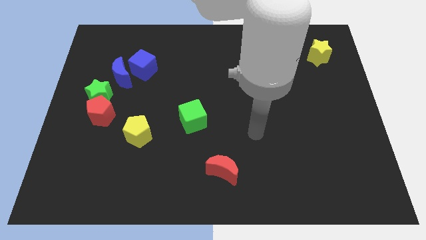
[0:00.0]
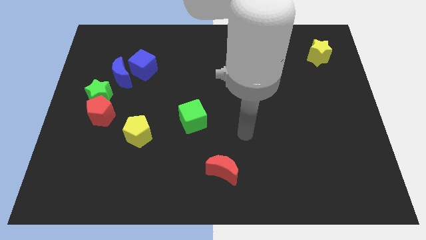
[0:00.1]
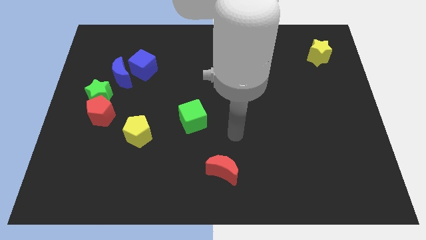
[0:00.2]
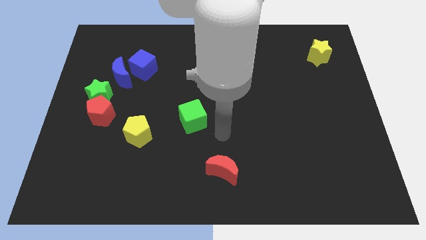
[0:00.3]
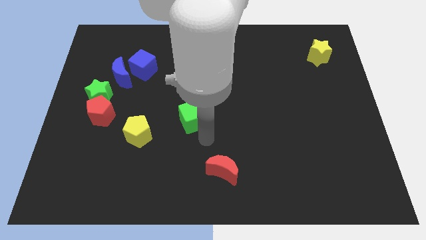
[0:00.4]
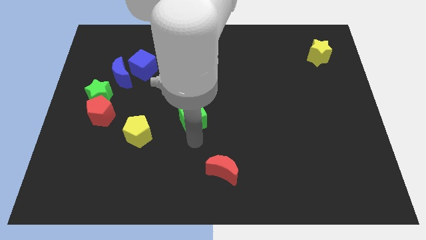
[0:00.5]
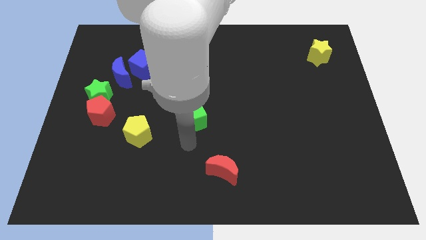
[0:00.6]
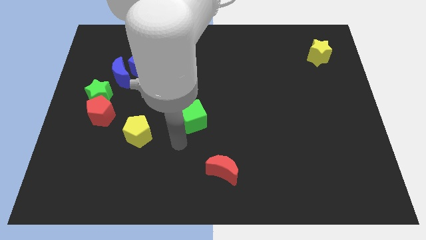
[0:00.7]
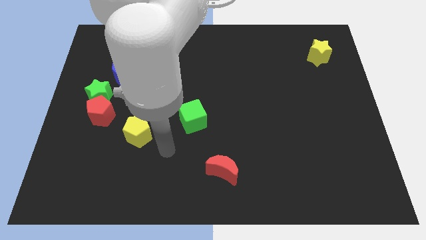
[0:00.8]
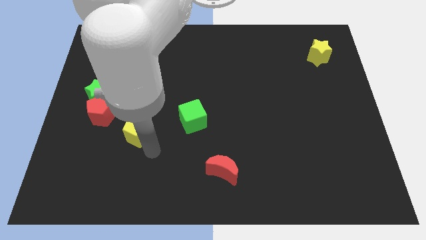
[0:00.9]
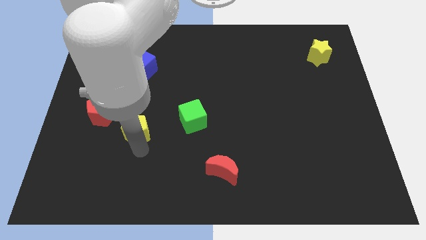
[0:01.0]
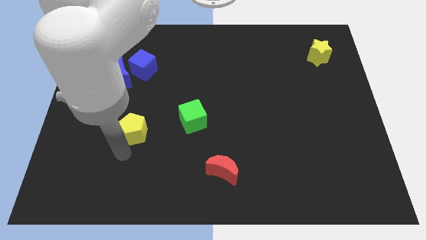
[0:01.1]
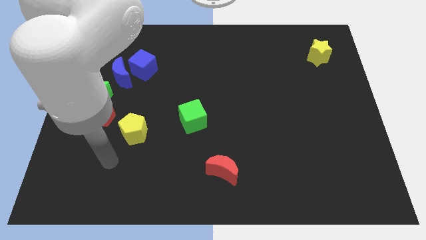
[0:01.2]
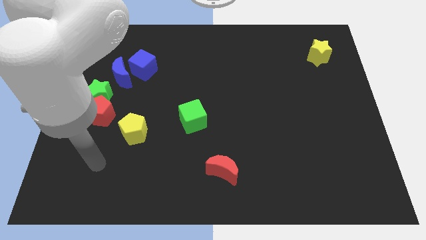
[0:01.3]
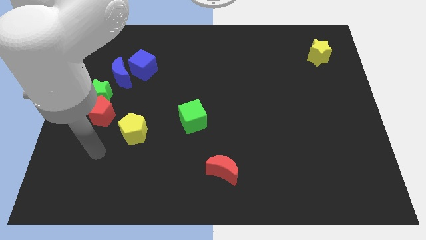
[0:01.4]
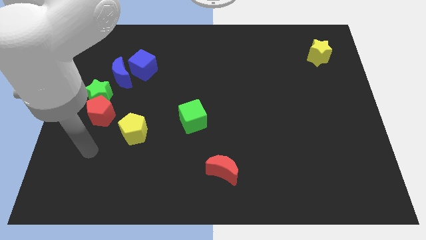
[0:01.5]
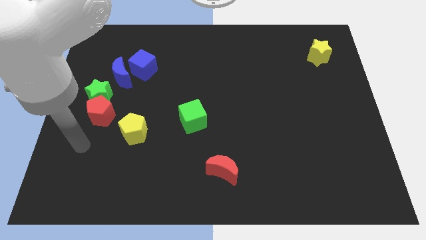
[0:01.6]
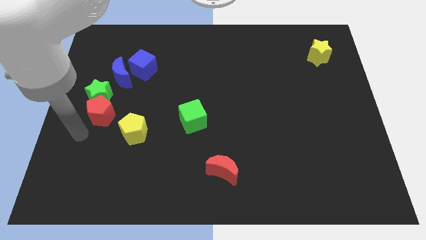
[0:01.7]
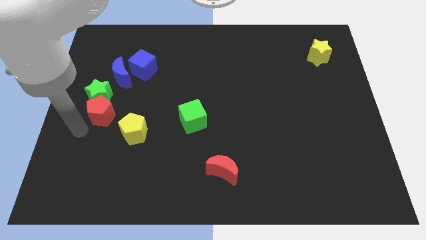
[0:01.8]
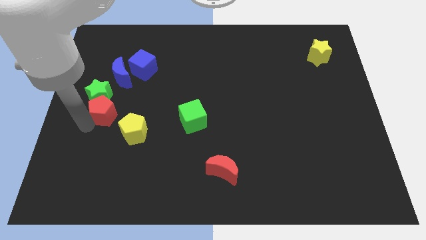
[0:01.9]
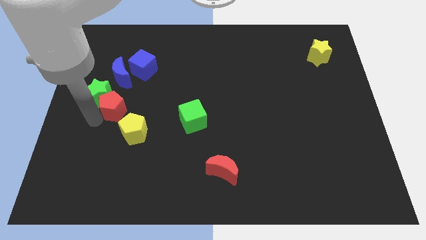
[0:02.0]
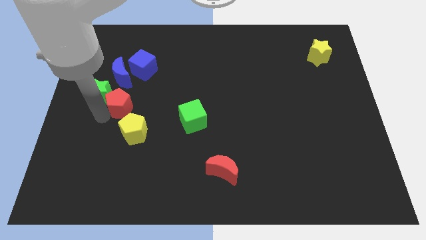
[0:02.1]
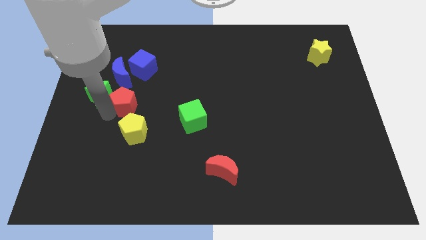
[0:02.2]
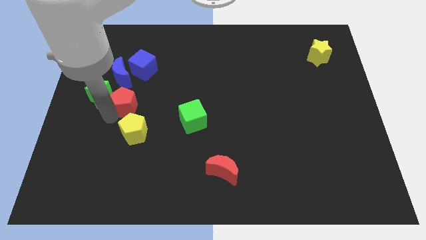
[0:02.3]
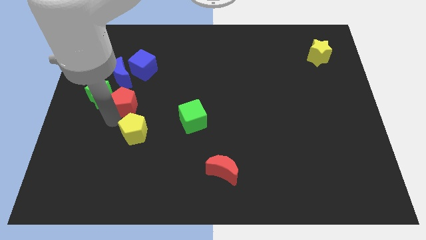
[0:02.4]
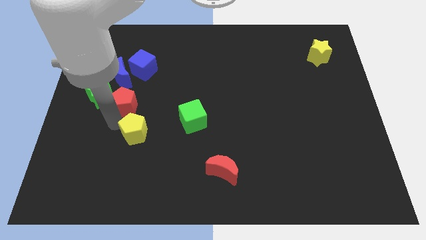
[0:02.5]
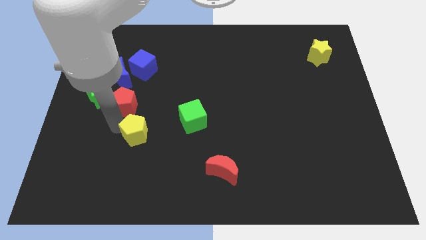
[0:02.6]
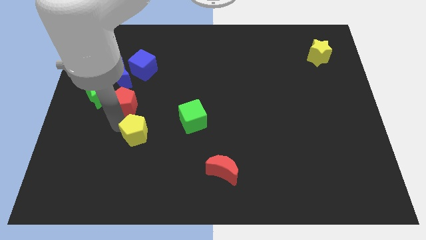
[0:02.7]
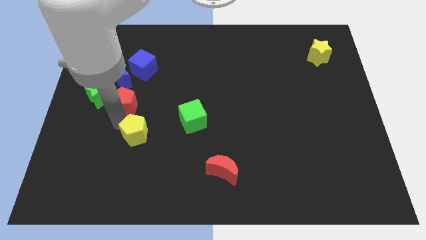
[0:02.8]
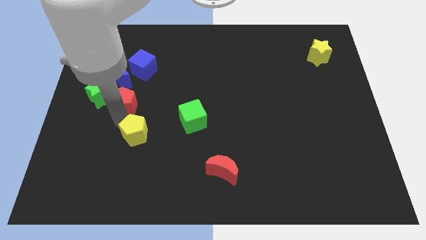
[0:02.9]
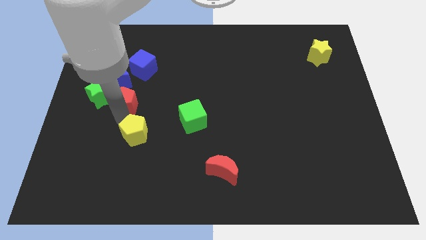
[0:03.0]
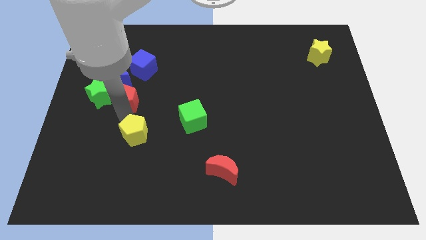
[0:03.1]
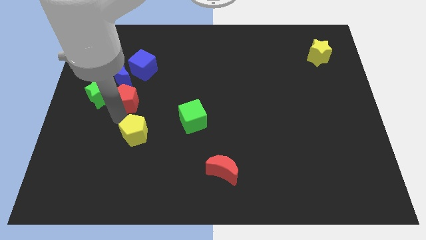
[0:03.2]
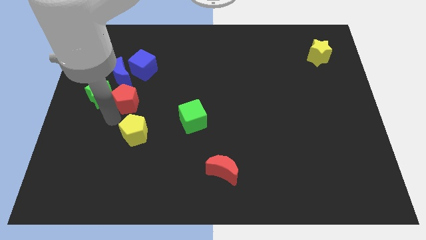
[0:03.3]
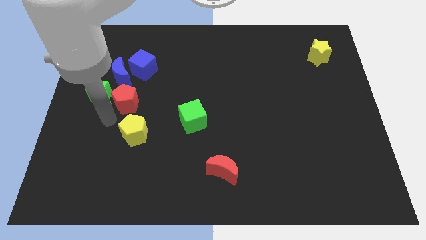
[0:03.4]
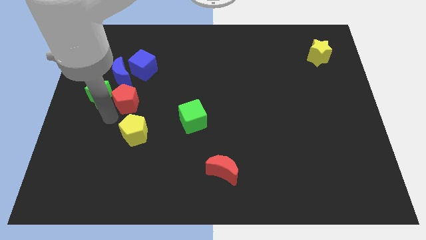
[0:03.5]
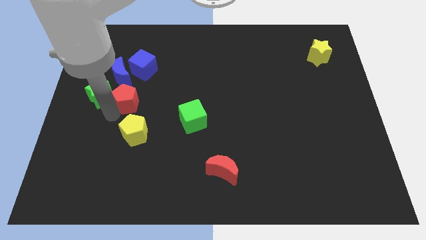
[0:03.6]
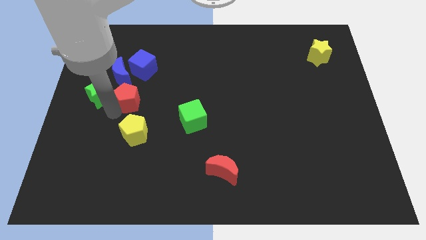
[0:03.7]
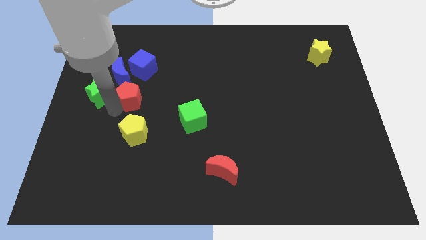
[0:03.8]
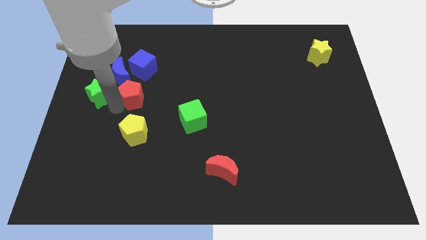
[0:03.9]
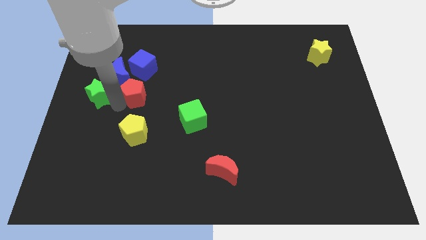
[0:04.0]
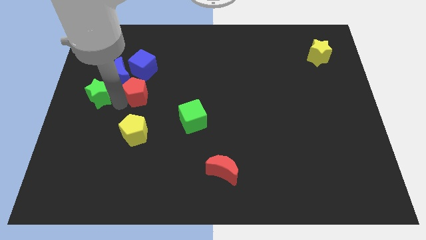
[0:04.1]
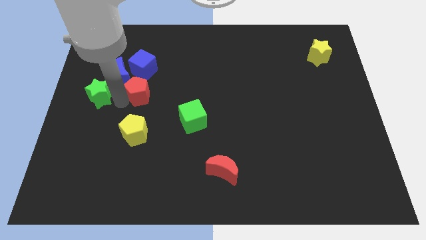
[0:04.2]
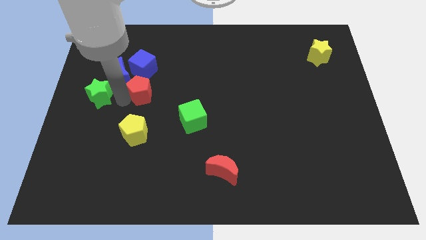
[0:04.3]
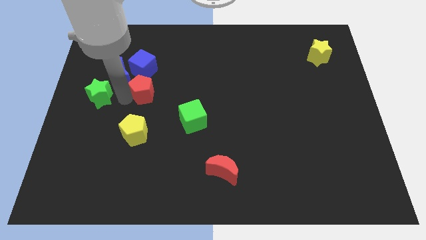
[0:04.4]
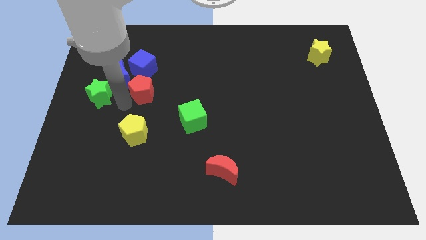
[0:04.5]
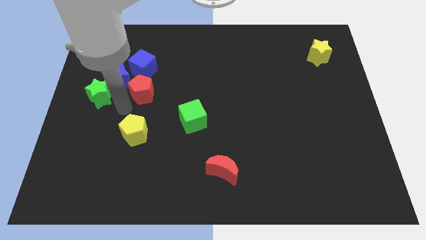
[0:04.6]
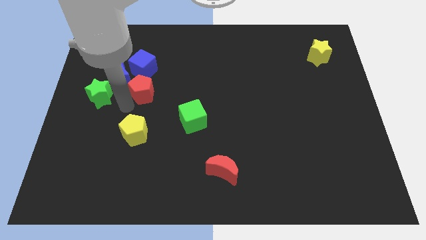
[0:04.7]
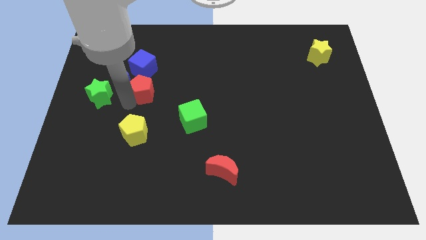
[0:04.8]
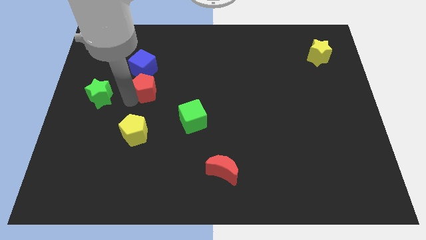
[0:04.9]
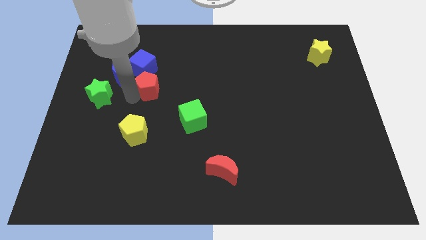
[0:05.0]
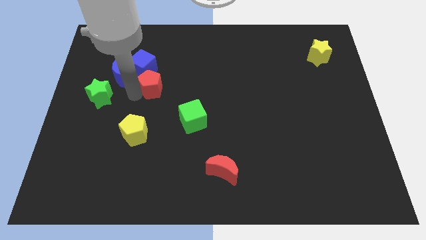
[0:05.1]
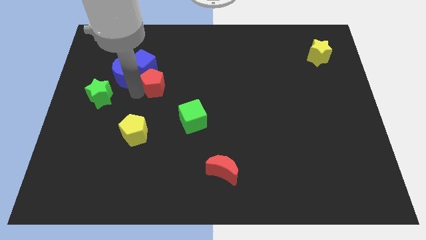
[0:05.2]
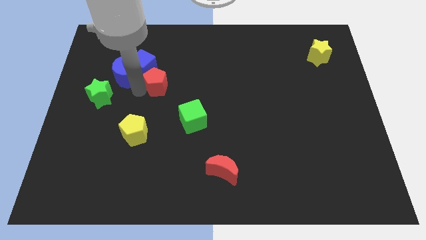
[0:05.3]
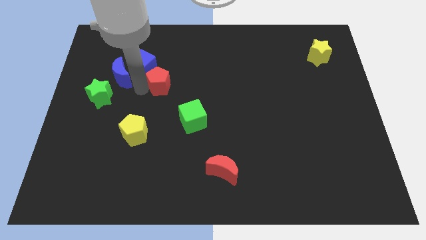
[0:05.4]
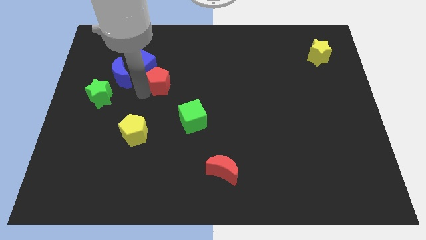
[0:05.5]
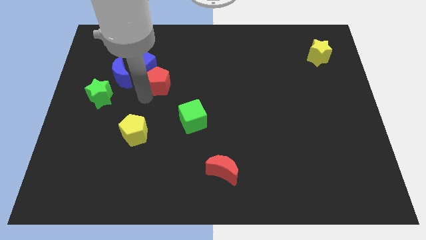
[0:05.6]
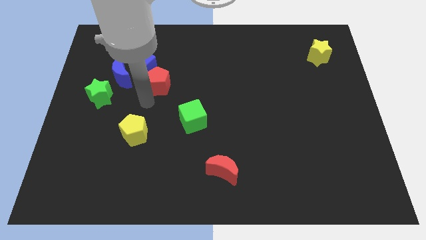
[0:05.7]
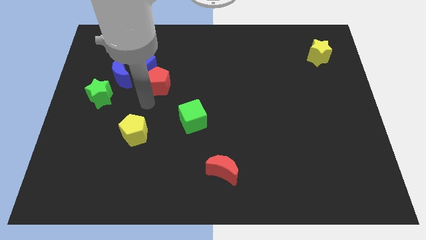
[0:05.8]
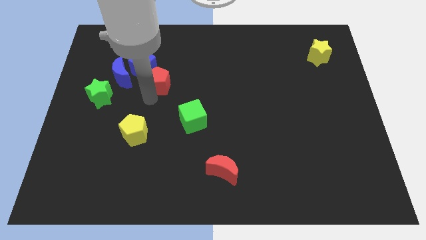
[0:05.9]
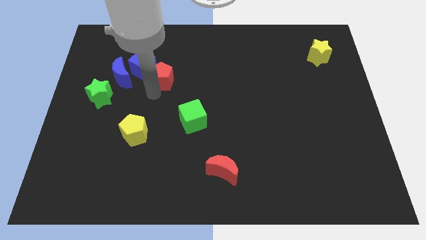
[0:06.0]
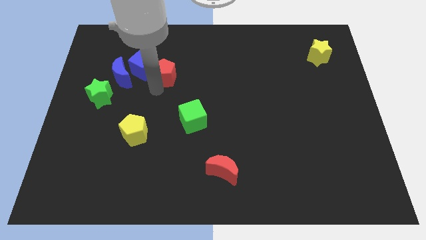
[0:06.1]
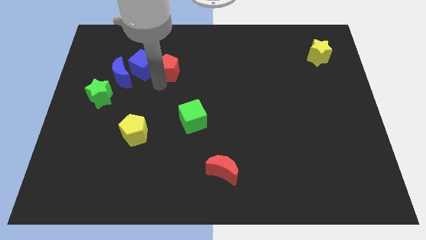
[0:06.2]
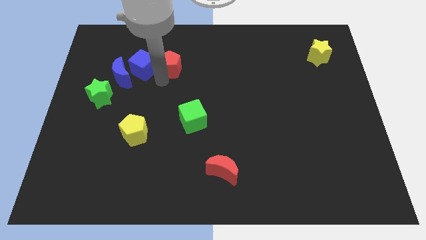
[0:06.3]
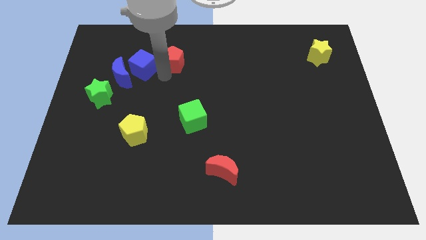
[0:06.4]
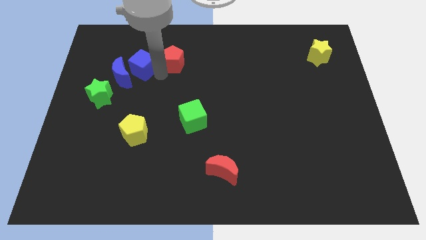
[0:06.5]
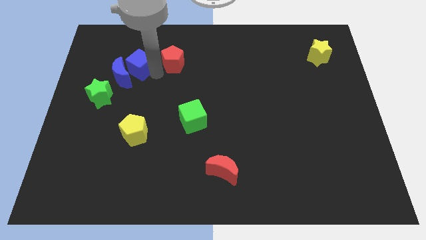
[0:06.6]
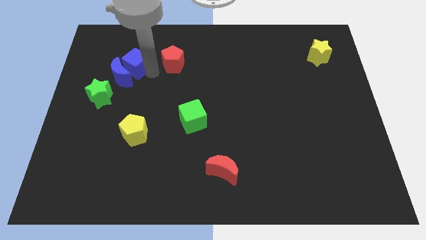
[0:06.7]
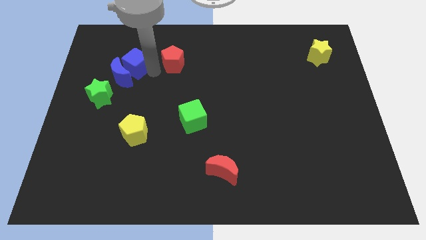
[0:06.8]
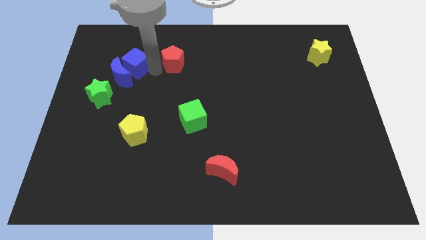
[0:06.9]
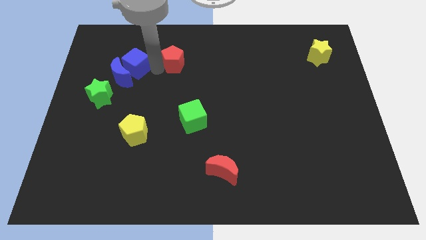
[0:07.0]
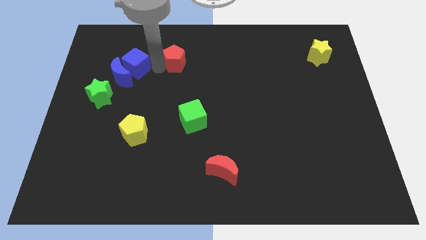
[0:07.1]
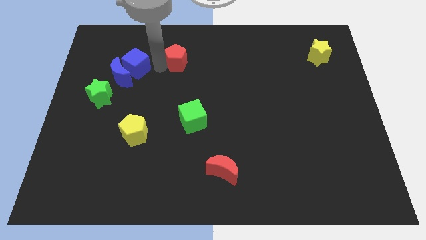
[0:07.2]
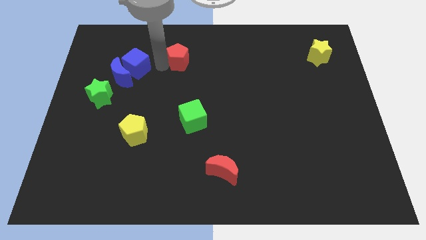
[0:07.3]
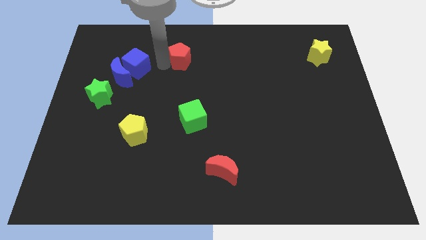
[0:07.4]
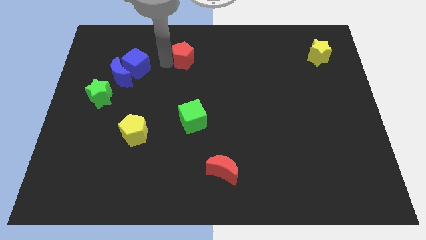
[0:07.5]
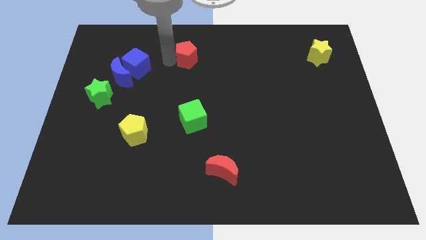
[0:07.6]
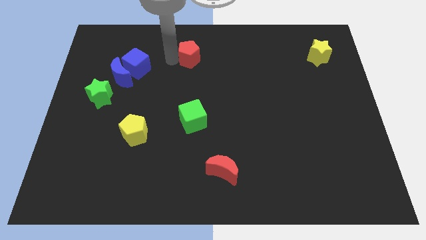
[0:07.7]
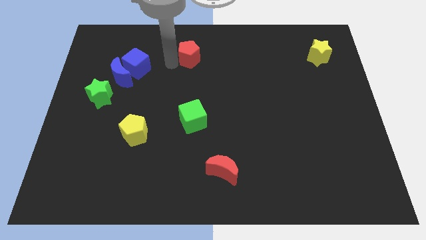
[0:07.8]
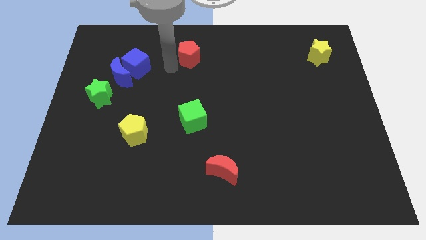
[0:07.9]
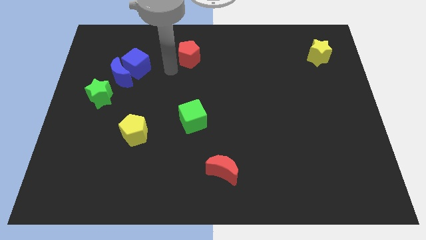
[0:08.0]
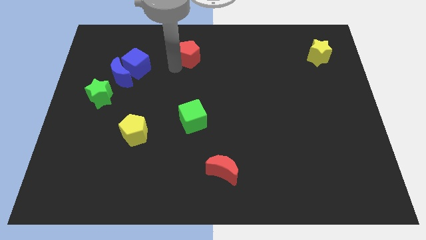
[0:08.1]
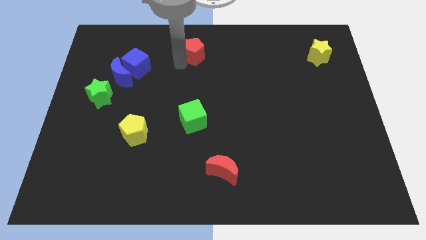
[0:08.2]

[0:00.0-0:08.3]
push the red pentagon to the top
